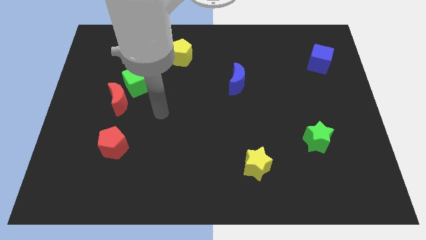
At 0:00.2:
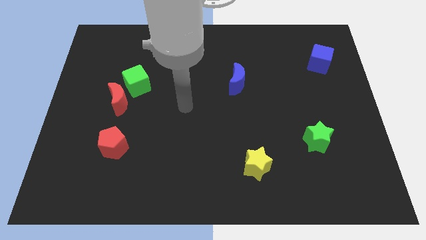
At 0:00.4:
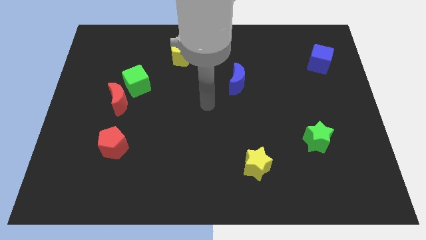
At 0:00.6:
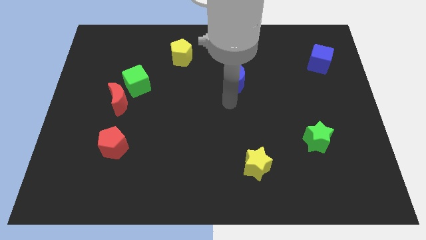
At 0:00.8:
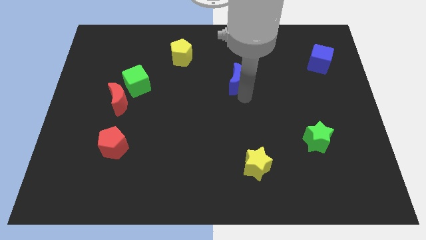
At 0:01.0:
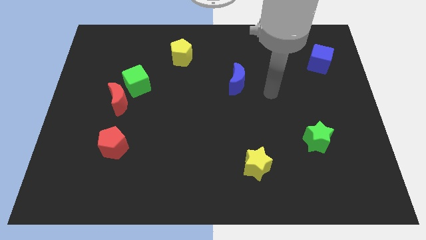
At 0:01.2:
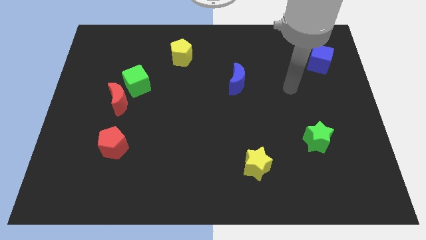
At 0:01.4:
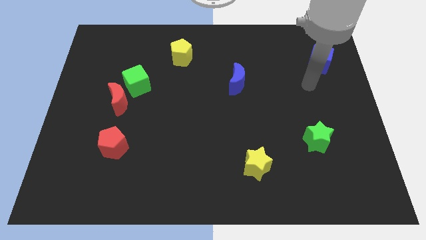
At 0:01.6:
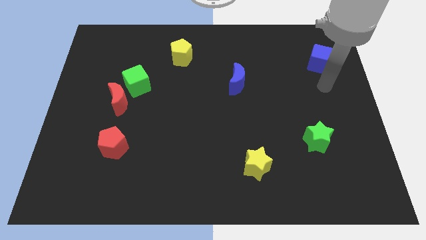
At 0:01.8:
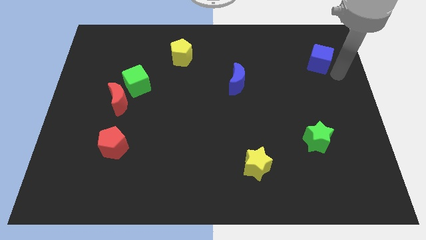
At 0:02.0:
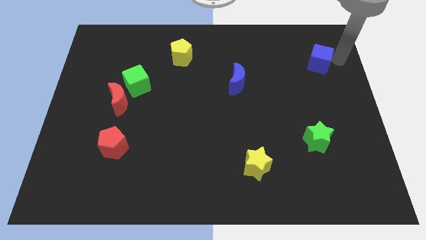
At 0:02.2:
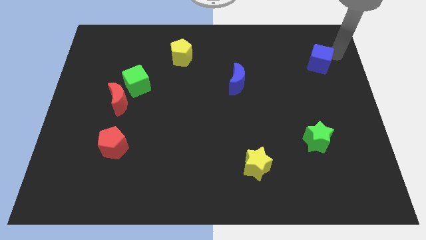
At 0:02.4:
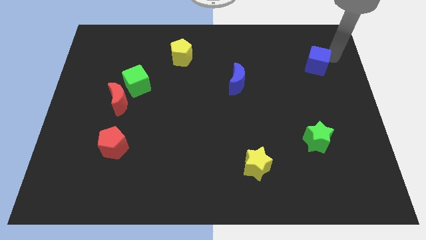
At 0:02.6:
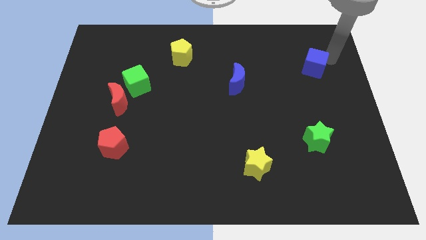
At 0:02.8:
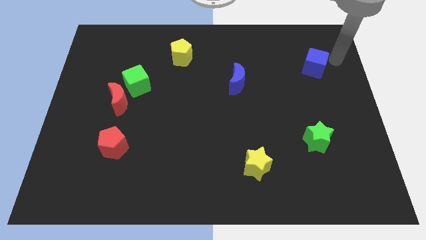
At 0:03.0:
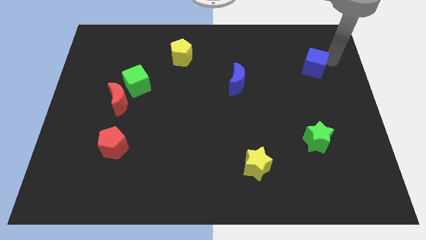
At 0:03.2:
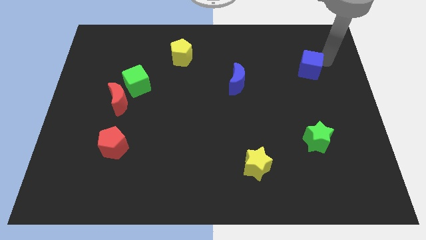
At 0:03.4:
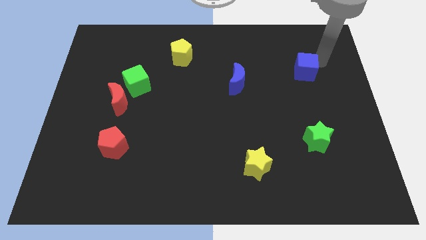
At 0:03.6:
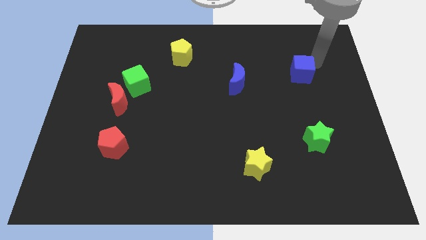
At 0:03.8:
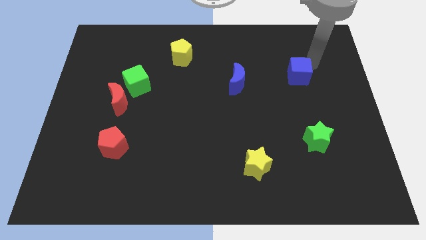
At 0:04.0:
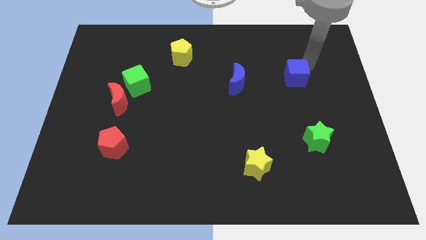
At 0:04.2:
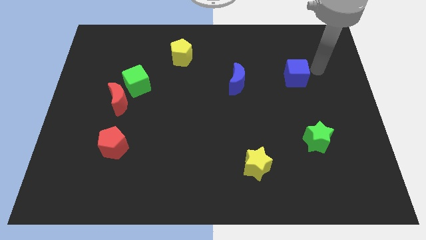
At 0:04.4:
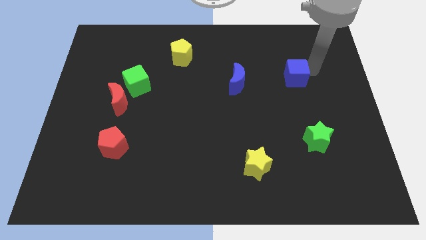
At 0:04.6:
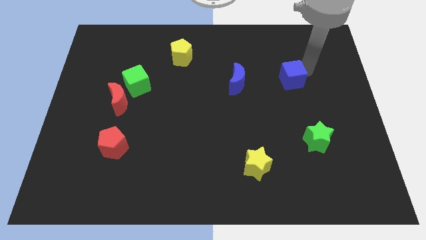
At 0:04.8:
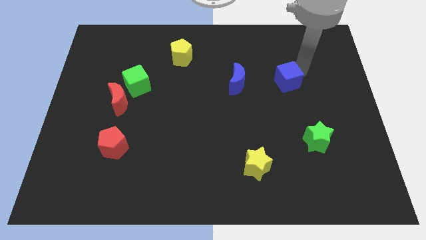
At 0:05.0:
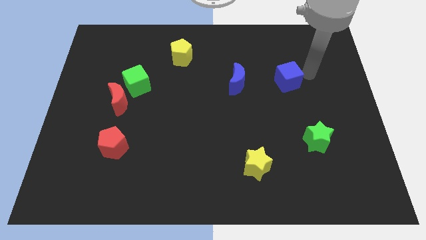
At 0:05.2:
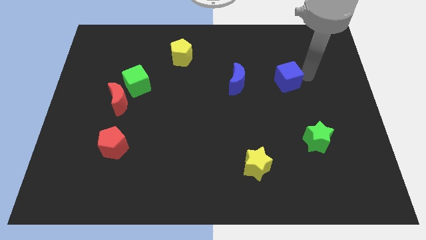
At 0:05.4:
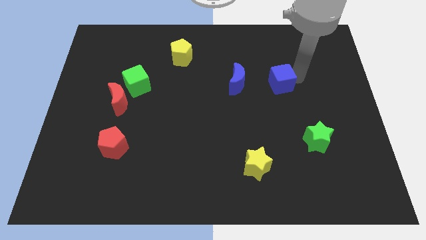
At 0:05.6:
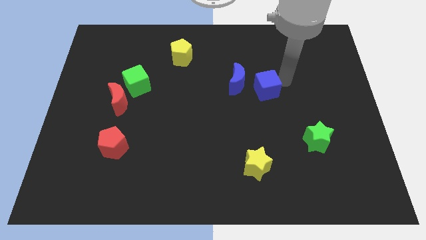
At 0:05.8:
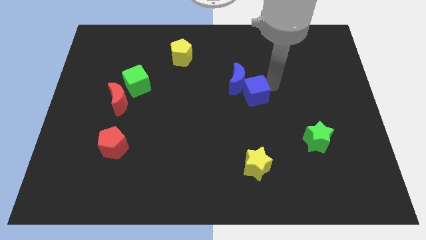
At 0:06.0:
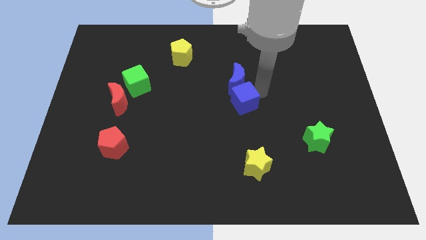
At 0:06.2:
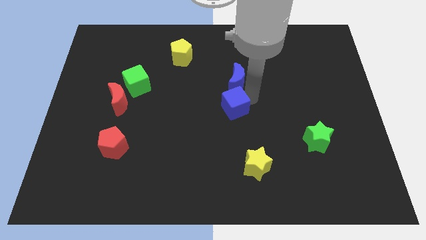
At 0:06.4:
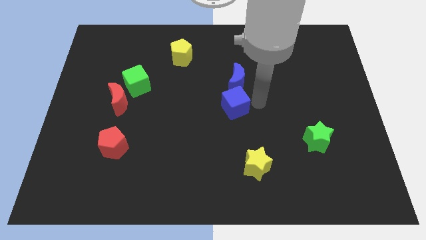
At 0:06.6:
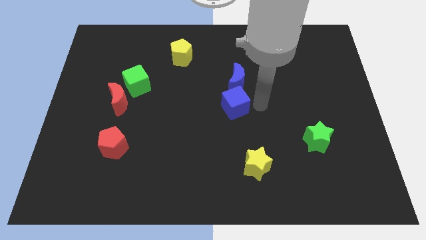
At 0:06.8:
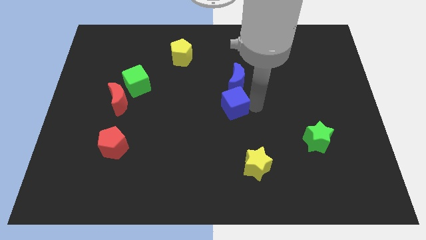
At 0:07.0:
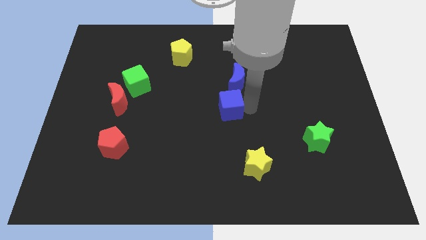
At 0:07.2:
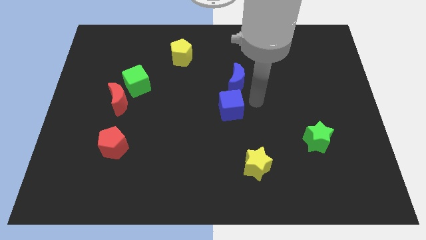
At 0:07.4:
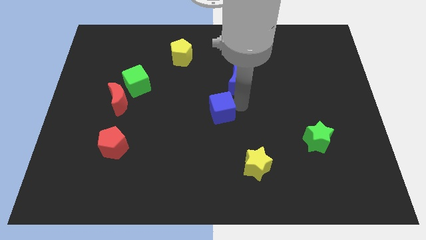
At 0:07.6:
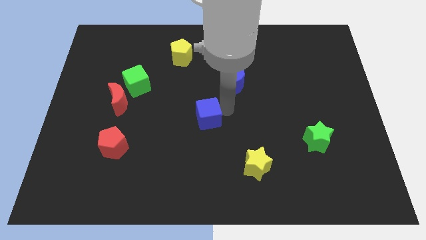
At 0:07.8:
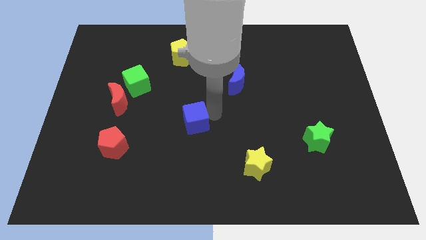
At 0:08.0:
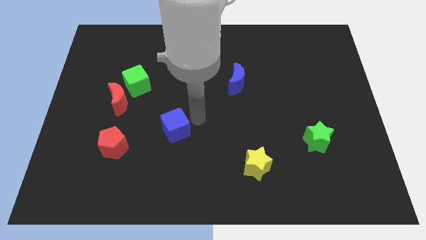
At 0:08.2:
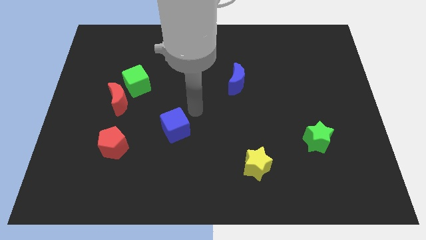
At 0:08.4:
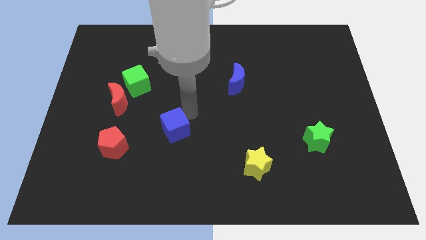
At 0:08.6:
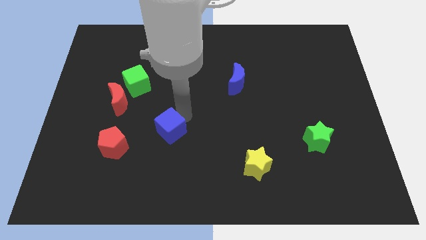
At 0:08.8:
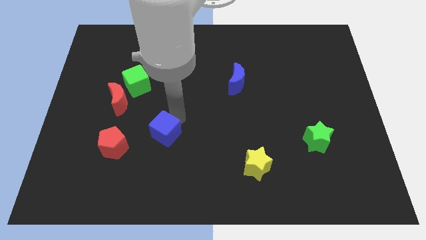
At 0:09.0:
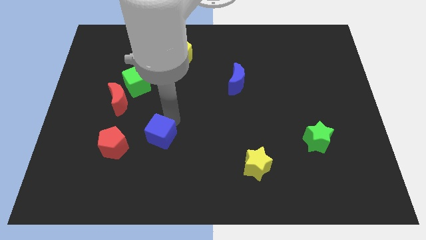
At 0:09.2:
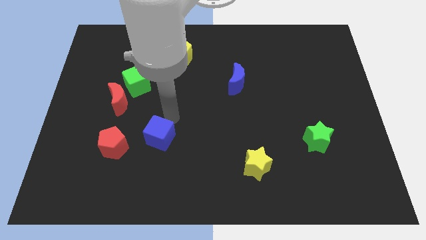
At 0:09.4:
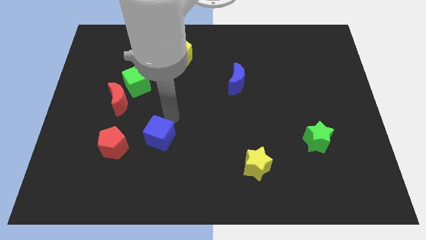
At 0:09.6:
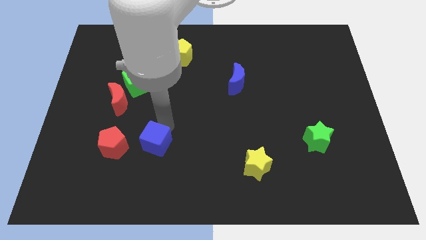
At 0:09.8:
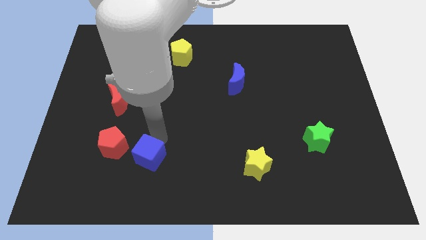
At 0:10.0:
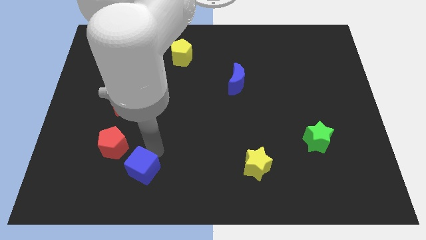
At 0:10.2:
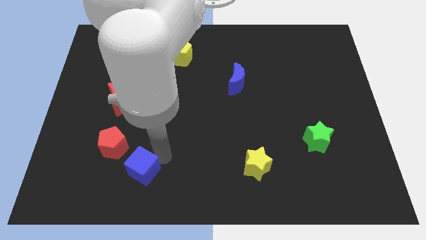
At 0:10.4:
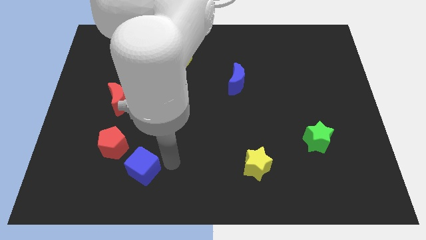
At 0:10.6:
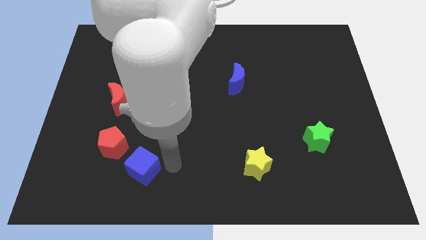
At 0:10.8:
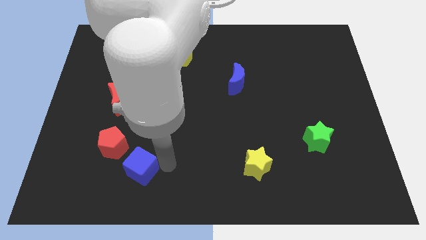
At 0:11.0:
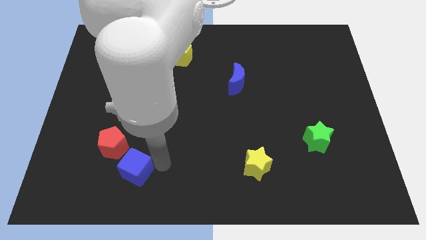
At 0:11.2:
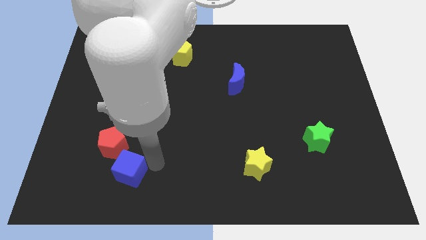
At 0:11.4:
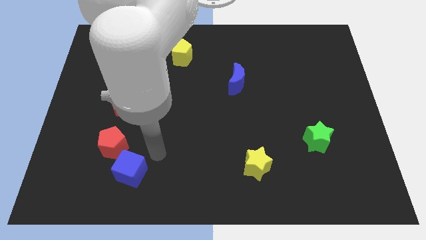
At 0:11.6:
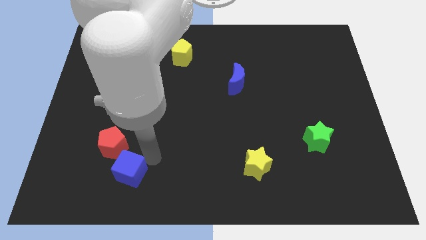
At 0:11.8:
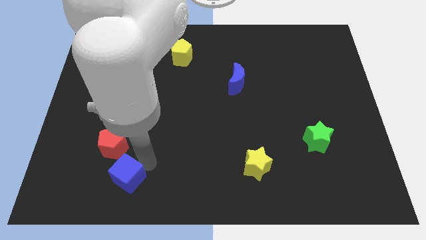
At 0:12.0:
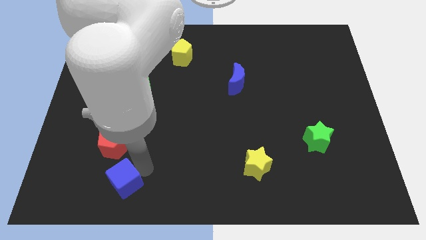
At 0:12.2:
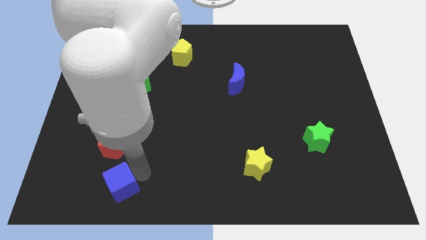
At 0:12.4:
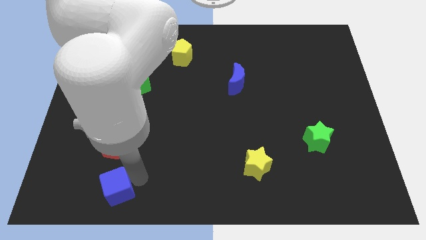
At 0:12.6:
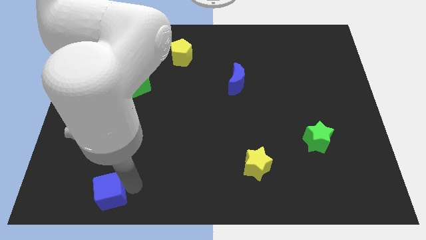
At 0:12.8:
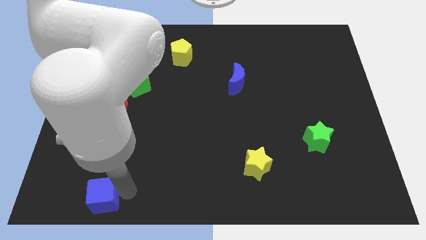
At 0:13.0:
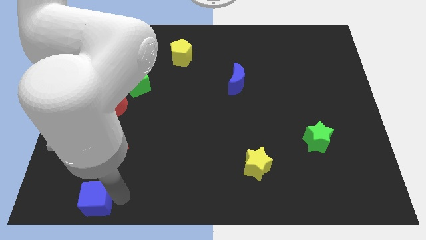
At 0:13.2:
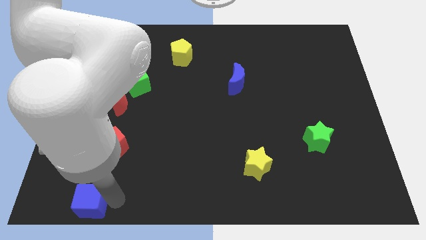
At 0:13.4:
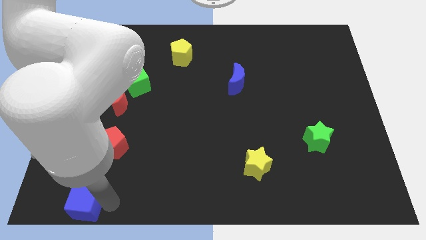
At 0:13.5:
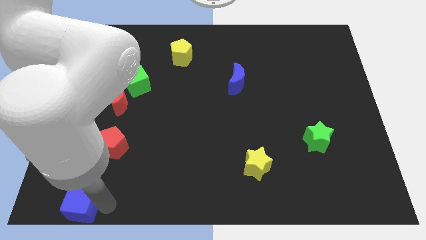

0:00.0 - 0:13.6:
push the blue cube to the bottom left corner
